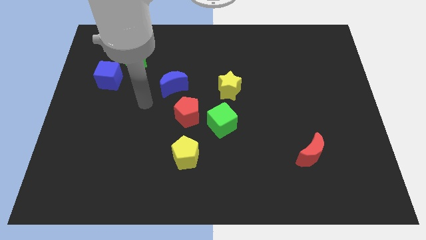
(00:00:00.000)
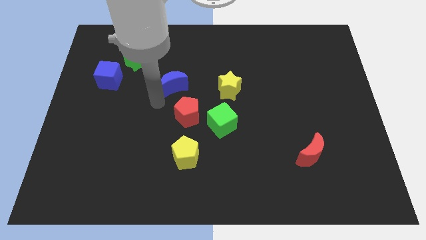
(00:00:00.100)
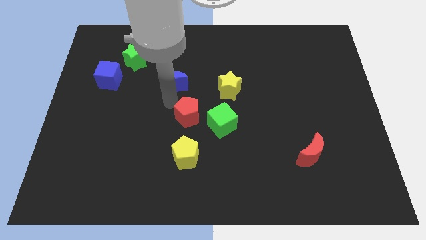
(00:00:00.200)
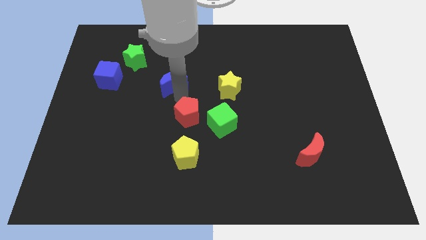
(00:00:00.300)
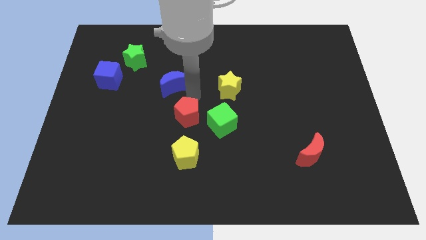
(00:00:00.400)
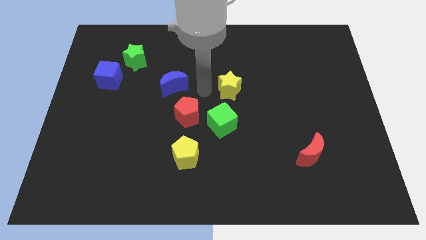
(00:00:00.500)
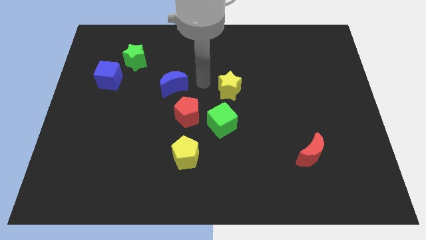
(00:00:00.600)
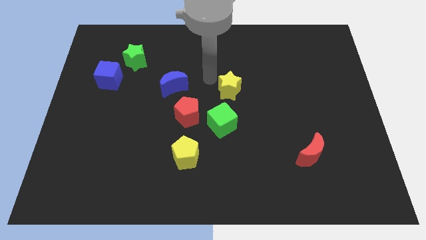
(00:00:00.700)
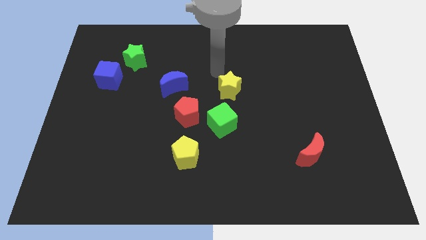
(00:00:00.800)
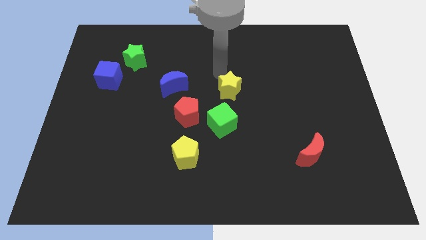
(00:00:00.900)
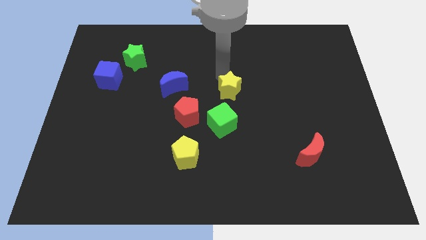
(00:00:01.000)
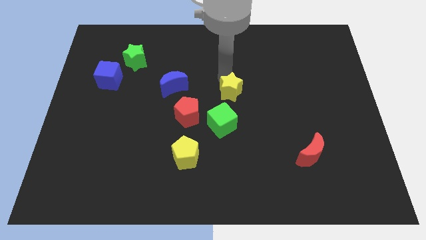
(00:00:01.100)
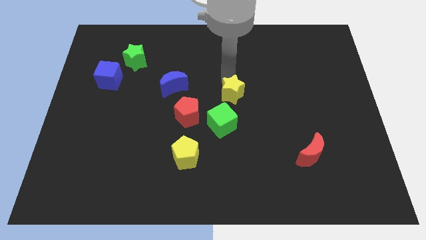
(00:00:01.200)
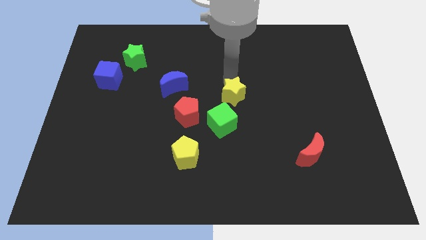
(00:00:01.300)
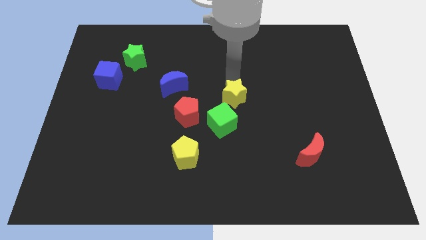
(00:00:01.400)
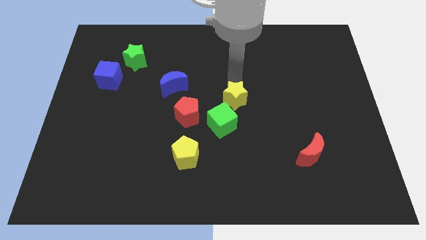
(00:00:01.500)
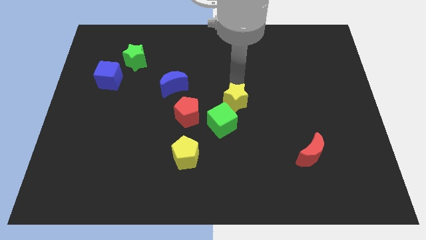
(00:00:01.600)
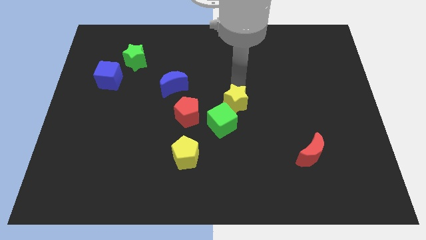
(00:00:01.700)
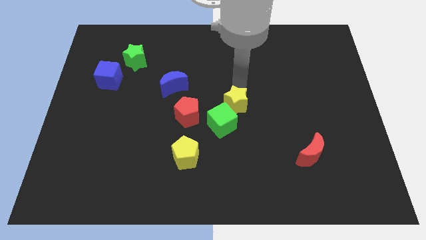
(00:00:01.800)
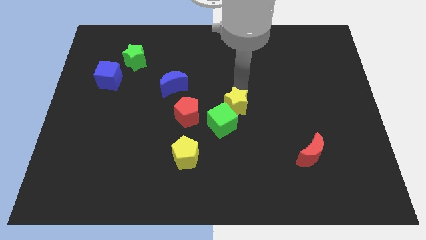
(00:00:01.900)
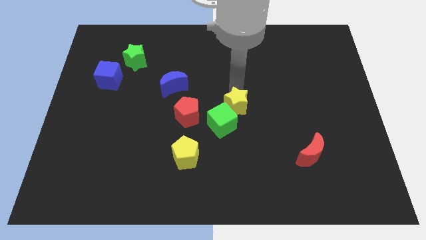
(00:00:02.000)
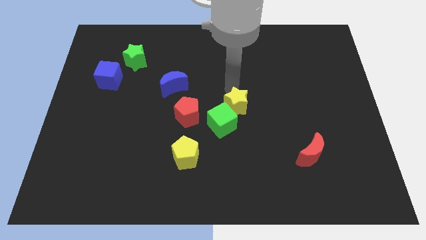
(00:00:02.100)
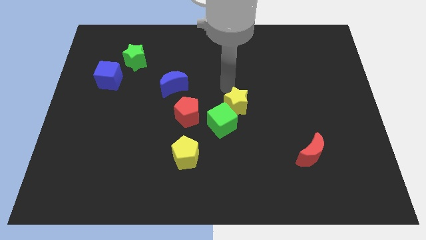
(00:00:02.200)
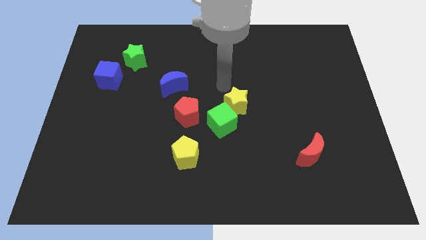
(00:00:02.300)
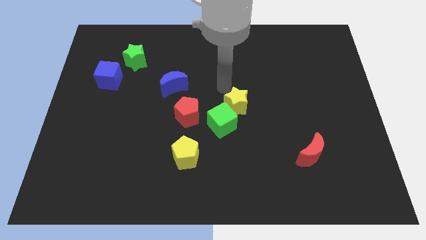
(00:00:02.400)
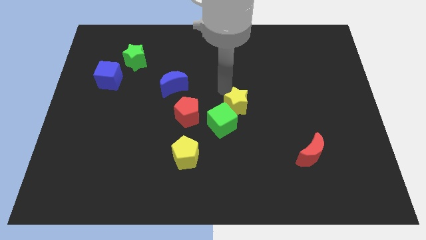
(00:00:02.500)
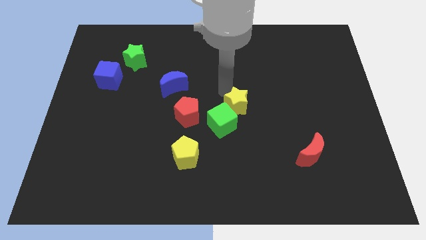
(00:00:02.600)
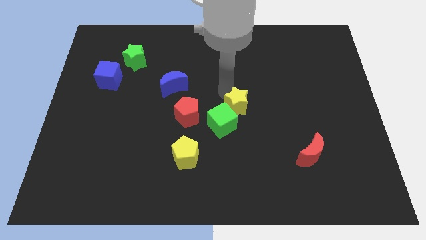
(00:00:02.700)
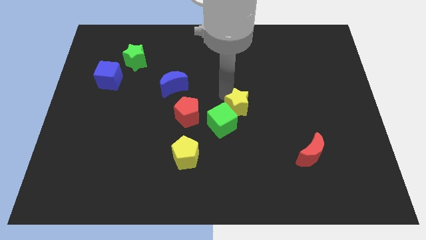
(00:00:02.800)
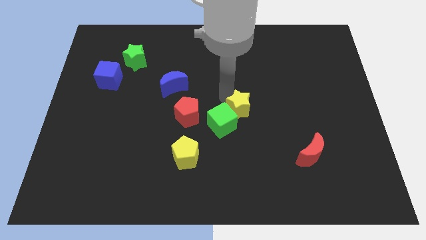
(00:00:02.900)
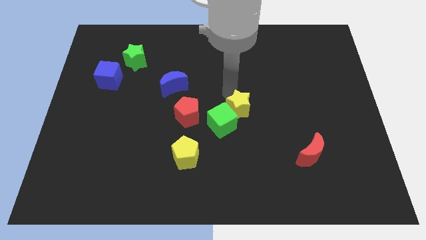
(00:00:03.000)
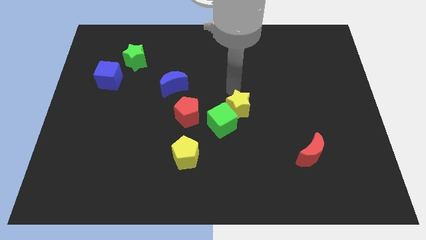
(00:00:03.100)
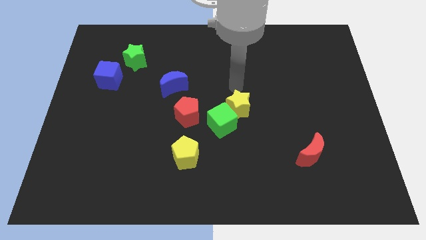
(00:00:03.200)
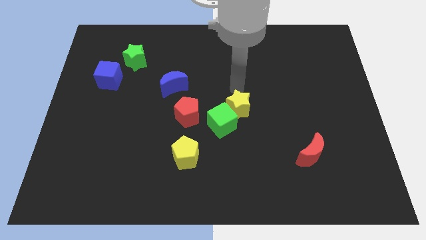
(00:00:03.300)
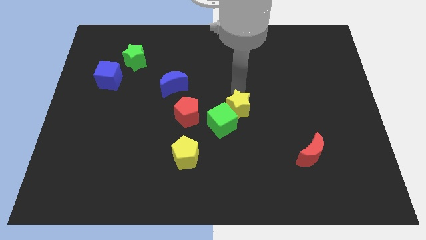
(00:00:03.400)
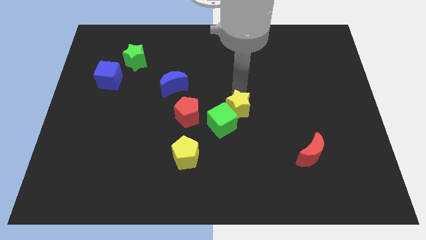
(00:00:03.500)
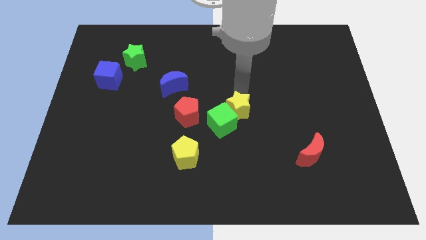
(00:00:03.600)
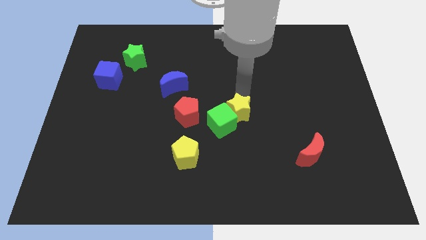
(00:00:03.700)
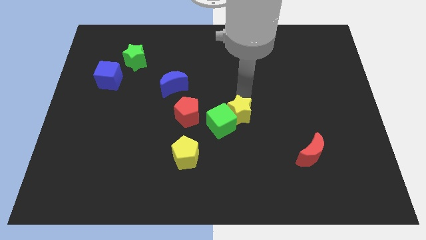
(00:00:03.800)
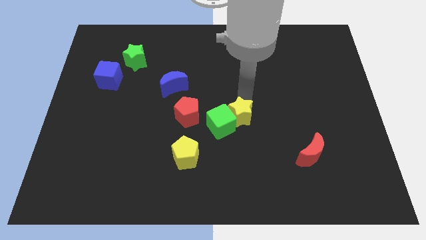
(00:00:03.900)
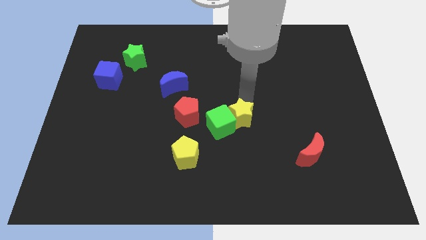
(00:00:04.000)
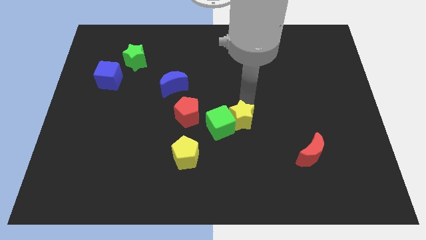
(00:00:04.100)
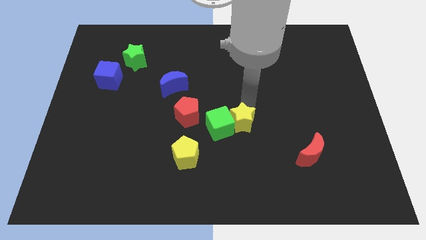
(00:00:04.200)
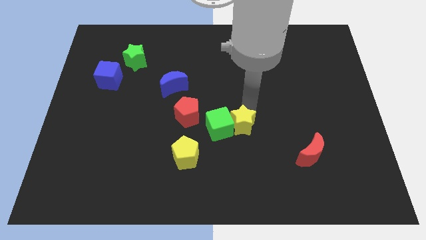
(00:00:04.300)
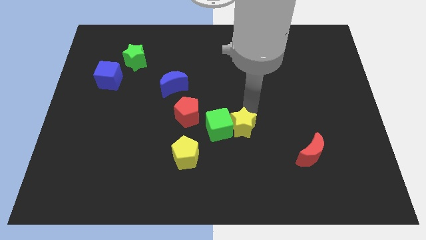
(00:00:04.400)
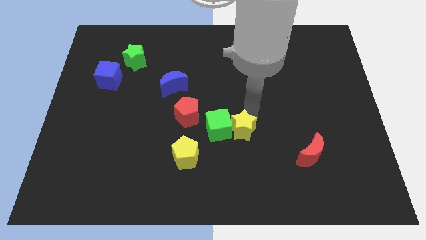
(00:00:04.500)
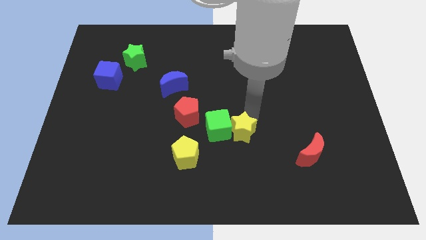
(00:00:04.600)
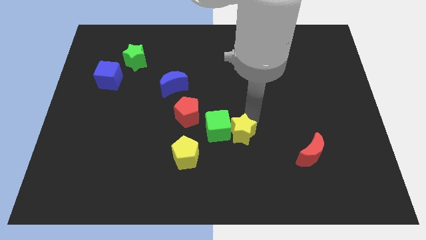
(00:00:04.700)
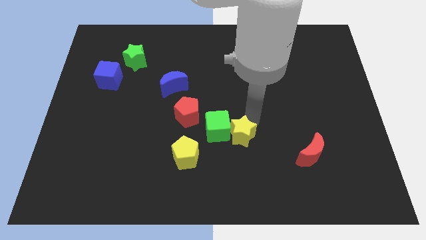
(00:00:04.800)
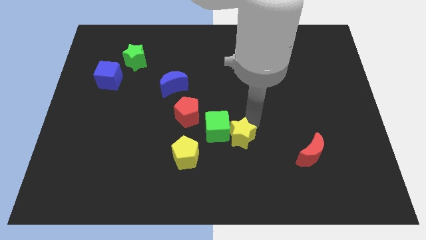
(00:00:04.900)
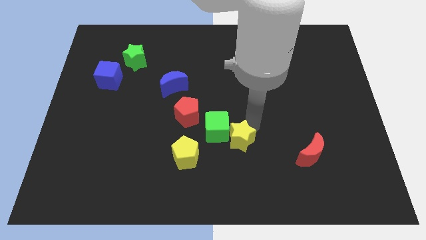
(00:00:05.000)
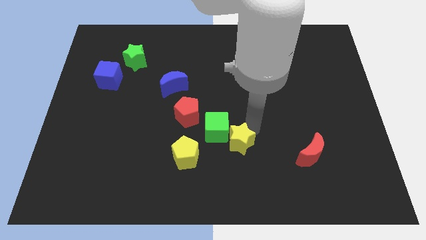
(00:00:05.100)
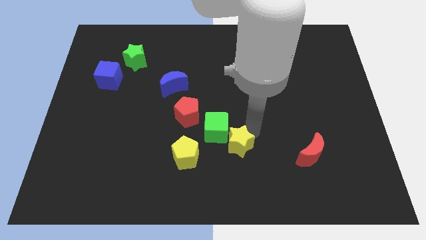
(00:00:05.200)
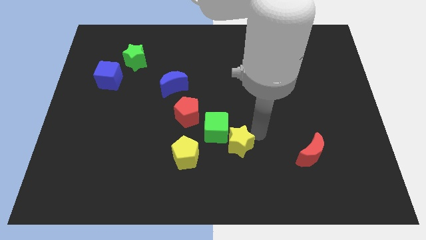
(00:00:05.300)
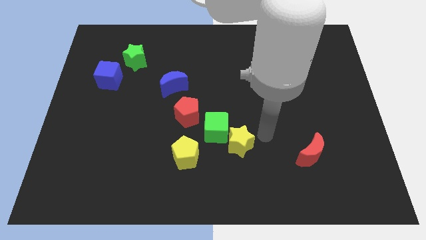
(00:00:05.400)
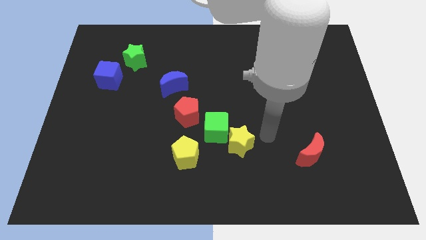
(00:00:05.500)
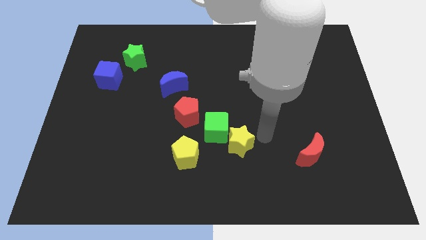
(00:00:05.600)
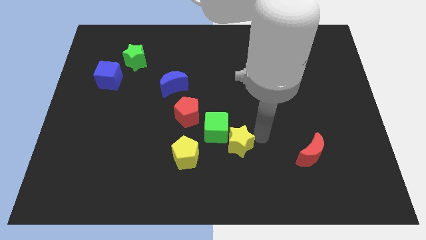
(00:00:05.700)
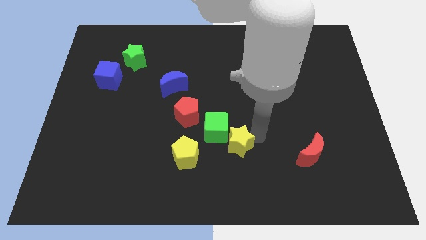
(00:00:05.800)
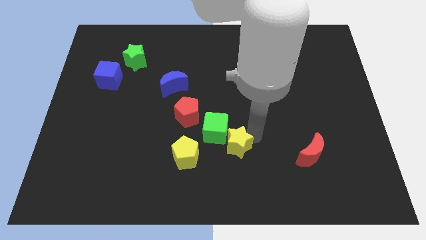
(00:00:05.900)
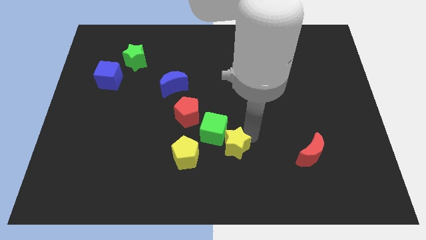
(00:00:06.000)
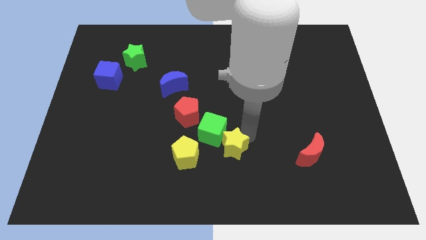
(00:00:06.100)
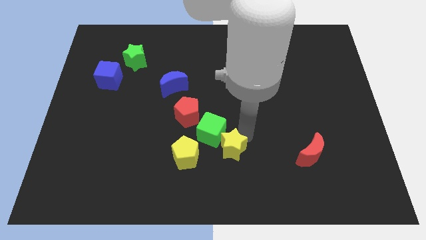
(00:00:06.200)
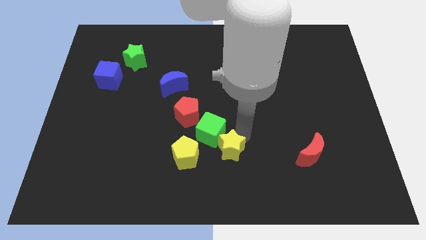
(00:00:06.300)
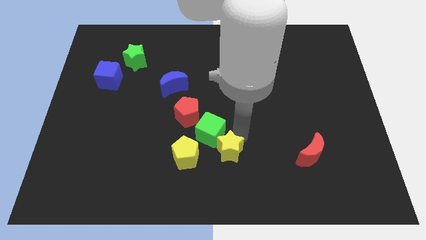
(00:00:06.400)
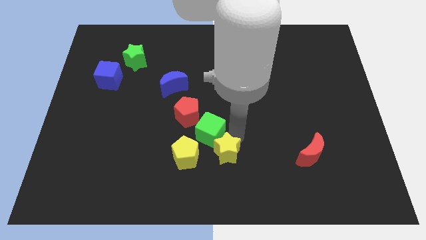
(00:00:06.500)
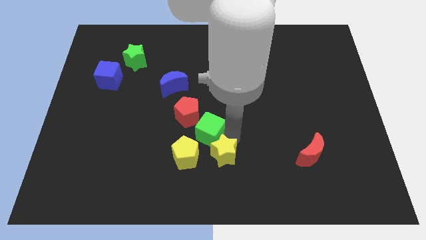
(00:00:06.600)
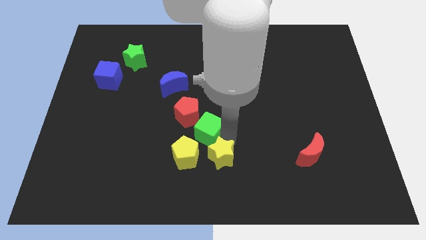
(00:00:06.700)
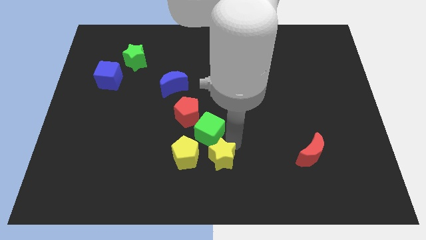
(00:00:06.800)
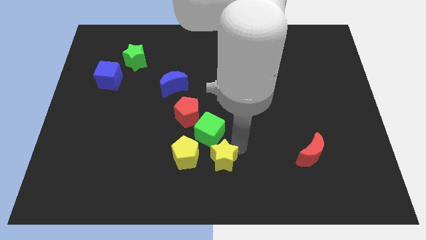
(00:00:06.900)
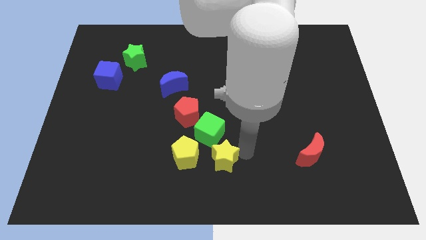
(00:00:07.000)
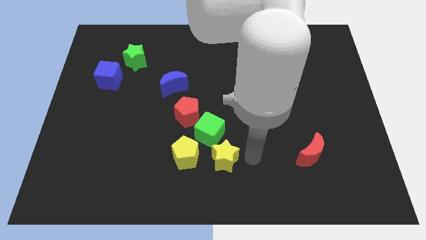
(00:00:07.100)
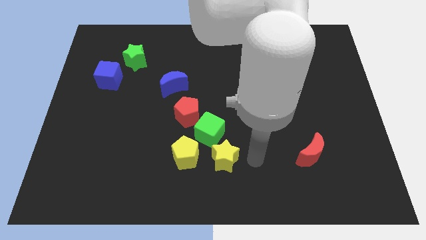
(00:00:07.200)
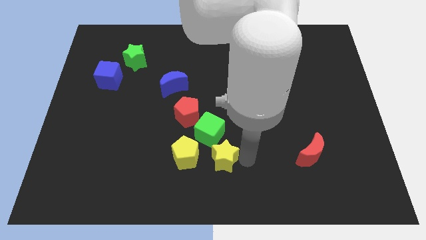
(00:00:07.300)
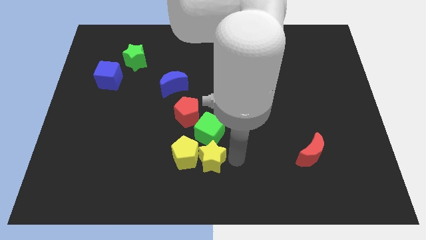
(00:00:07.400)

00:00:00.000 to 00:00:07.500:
push the yellow star towards the yellow pentagon

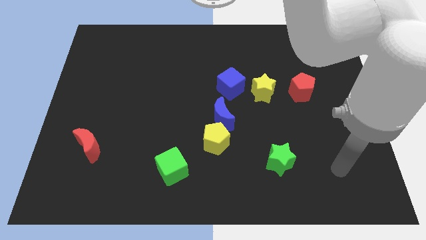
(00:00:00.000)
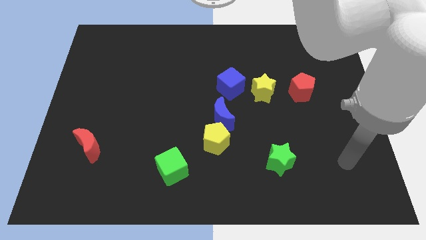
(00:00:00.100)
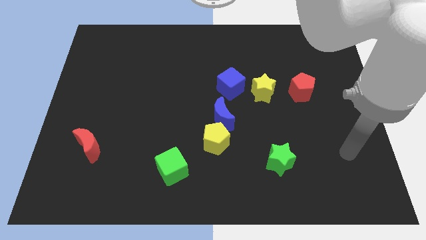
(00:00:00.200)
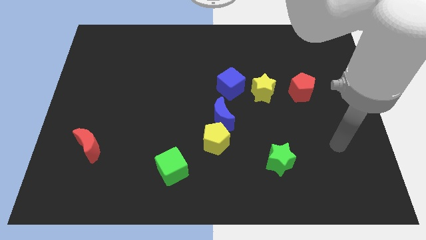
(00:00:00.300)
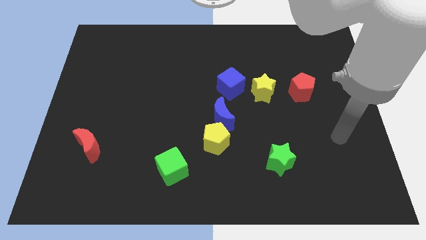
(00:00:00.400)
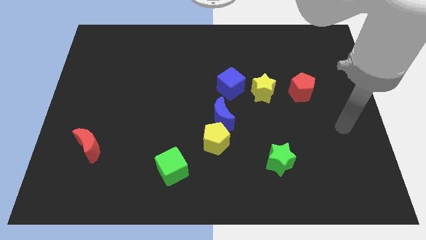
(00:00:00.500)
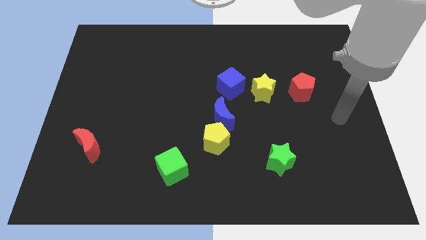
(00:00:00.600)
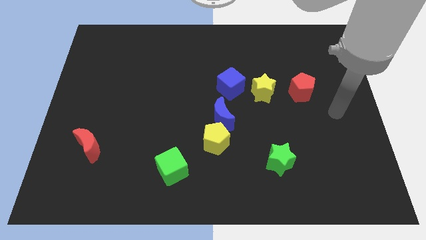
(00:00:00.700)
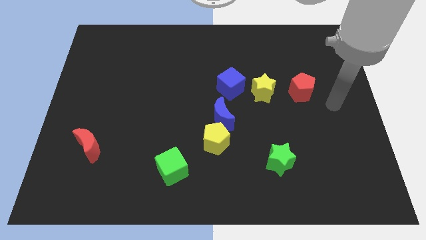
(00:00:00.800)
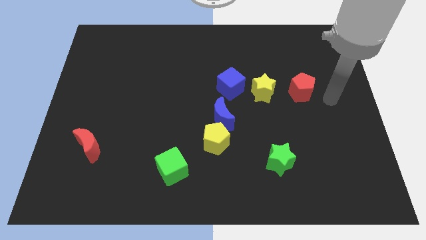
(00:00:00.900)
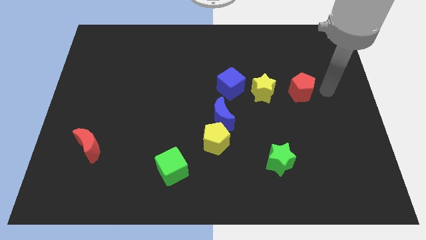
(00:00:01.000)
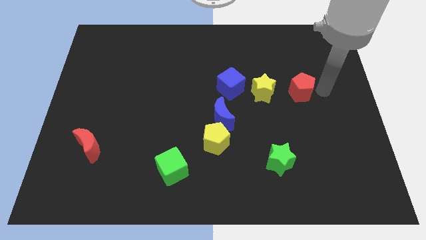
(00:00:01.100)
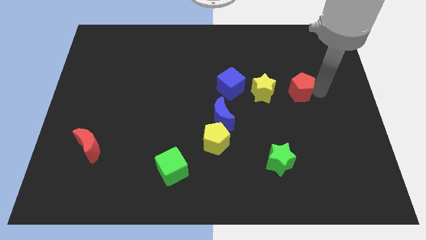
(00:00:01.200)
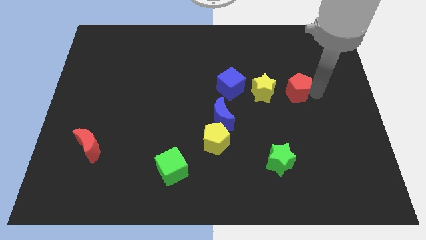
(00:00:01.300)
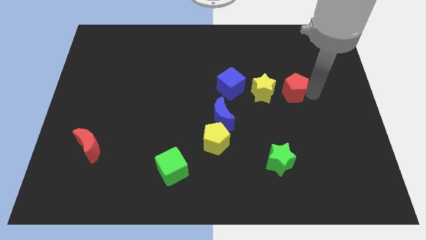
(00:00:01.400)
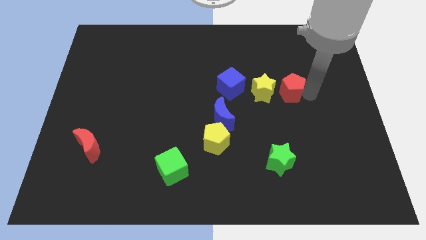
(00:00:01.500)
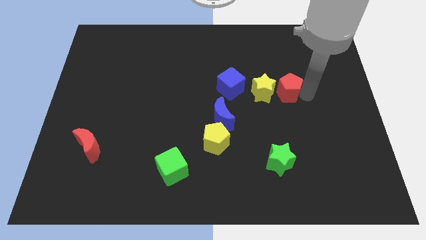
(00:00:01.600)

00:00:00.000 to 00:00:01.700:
slide the red pentagon close to the yellow star
